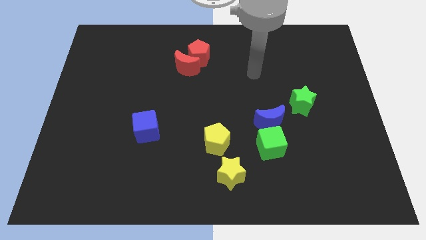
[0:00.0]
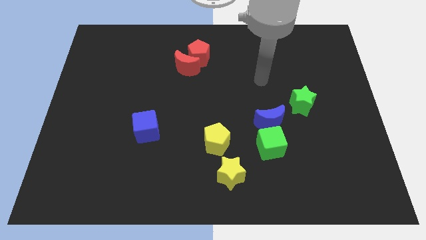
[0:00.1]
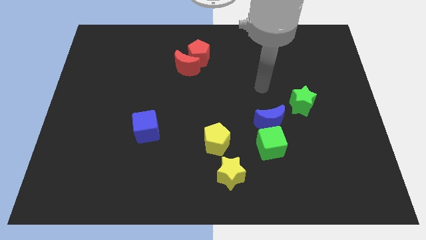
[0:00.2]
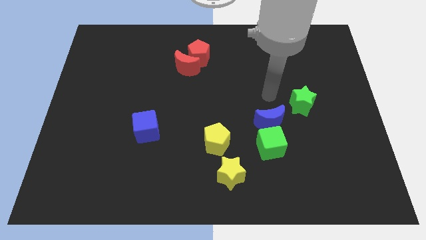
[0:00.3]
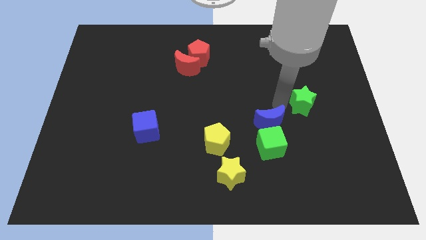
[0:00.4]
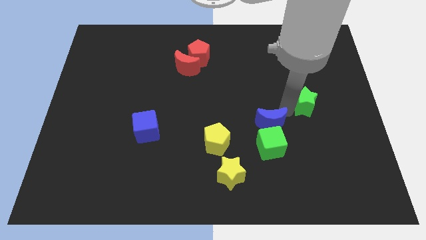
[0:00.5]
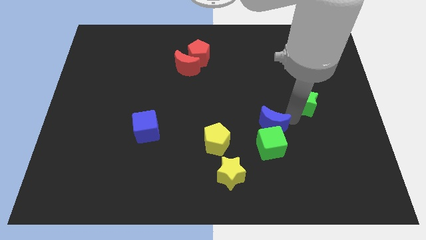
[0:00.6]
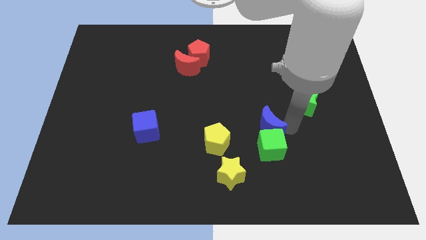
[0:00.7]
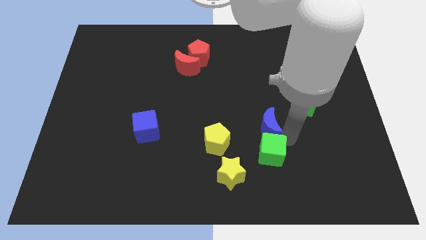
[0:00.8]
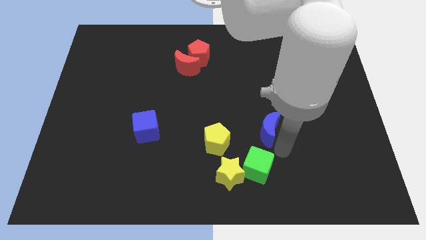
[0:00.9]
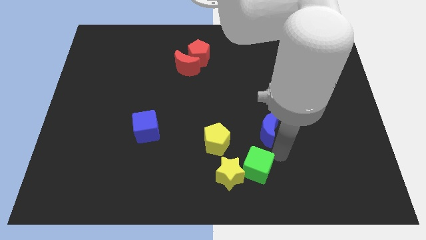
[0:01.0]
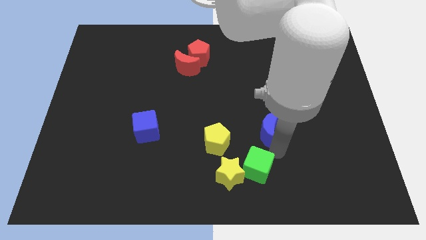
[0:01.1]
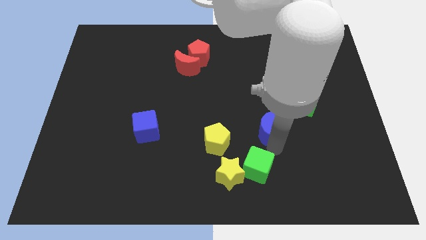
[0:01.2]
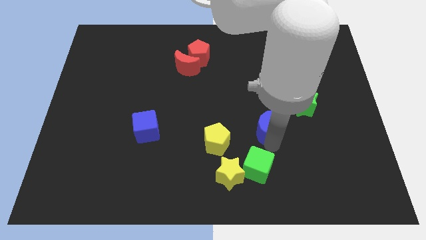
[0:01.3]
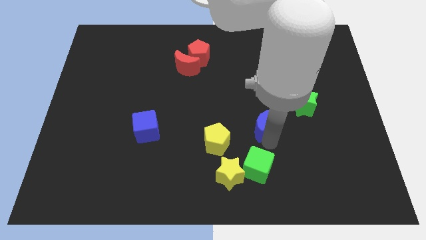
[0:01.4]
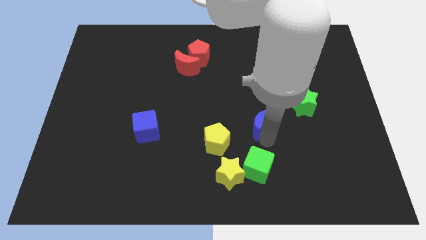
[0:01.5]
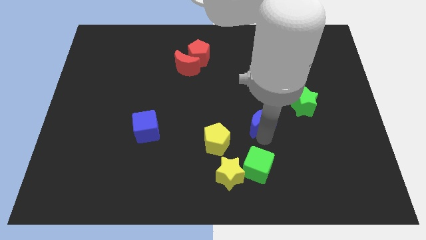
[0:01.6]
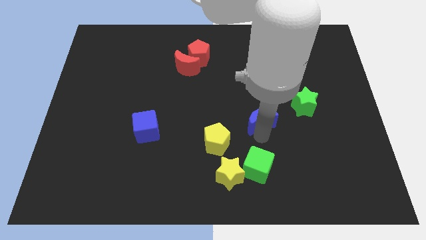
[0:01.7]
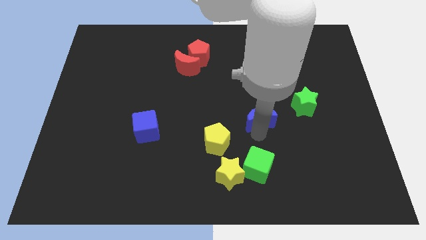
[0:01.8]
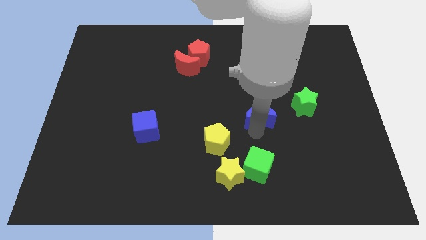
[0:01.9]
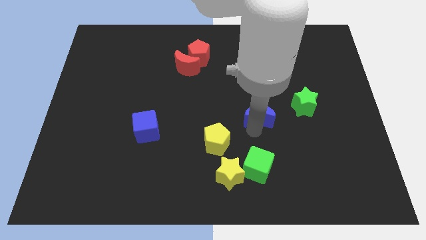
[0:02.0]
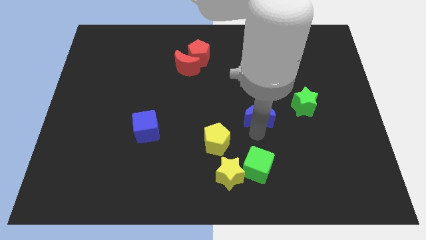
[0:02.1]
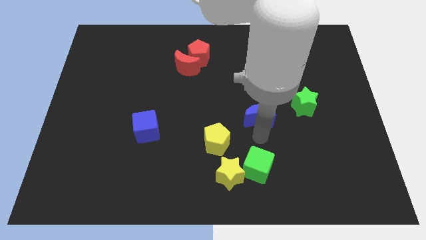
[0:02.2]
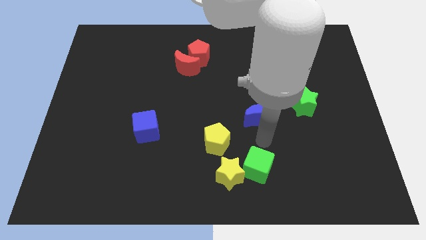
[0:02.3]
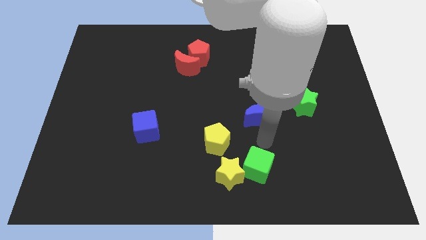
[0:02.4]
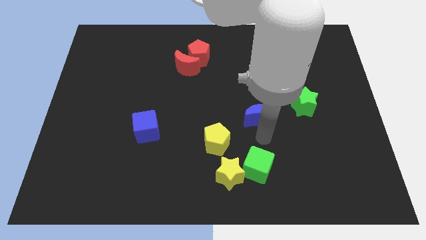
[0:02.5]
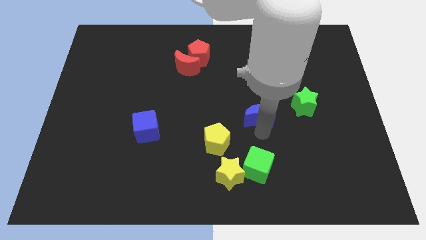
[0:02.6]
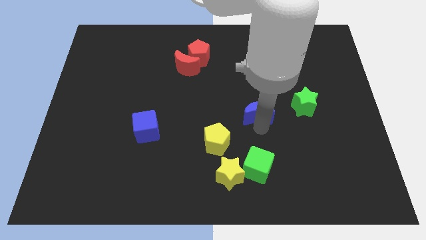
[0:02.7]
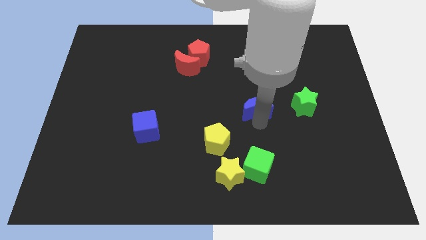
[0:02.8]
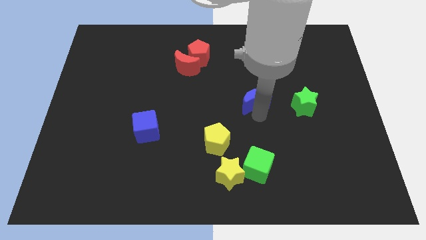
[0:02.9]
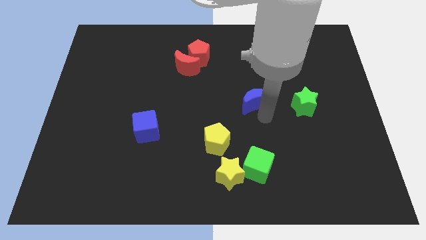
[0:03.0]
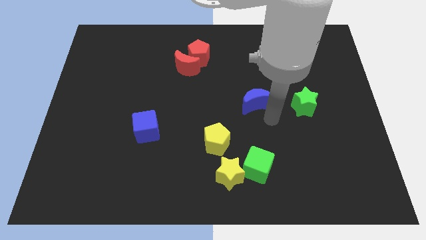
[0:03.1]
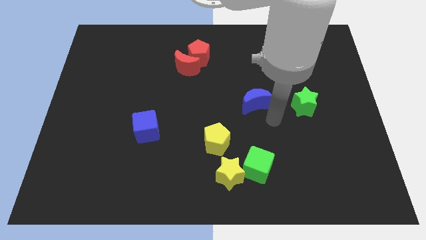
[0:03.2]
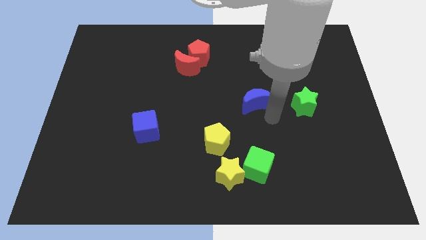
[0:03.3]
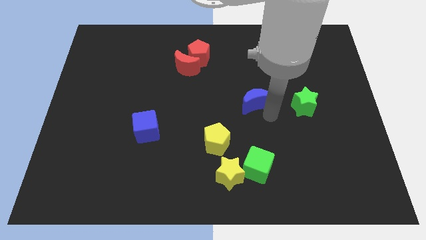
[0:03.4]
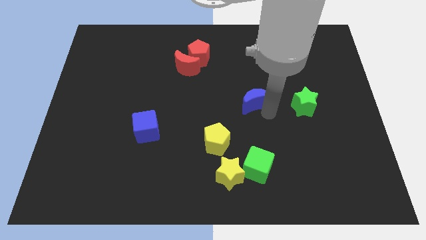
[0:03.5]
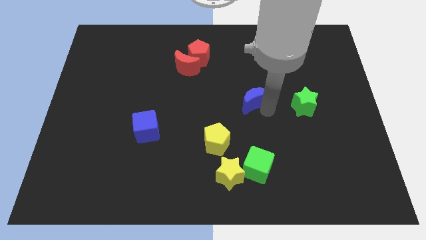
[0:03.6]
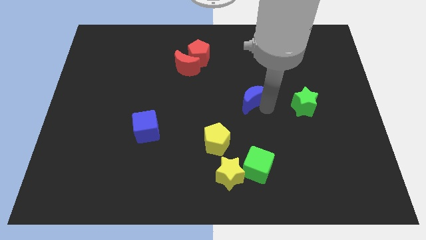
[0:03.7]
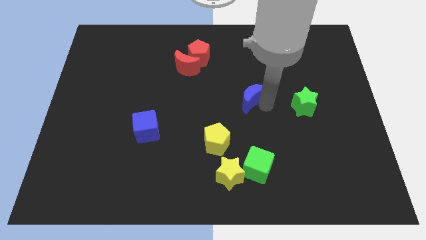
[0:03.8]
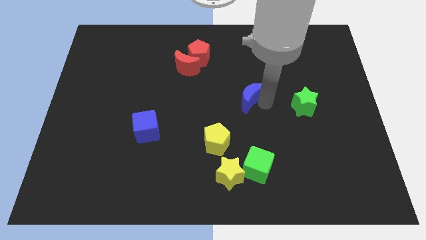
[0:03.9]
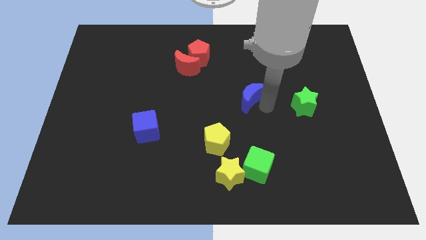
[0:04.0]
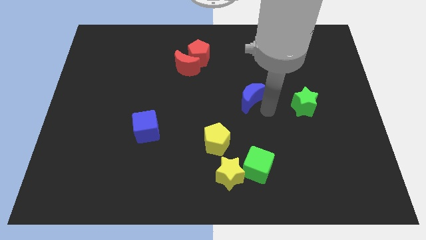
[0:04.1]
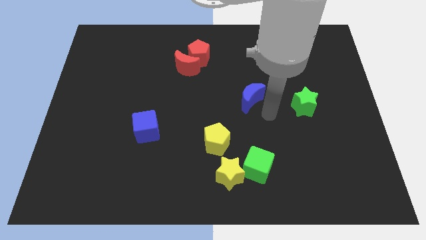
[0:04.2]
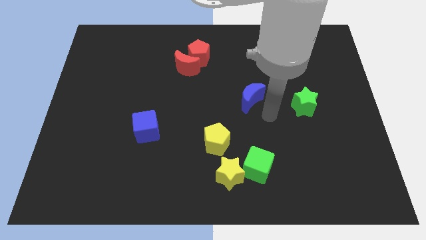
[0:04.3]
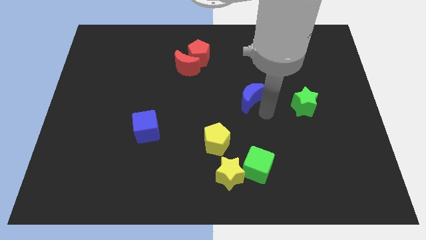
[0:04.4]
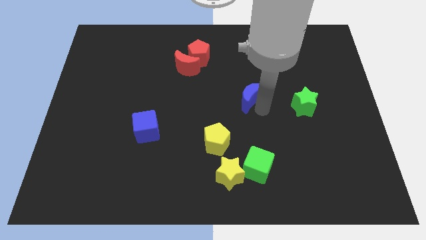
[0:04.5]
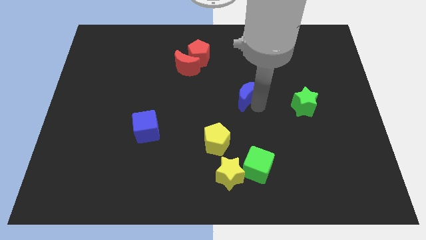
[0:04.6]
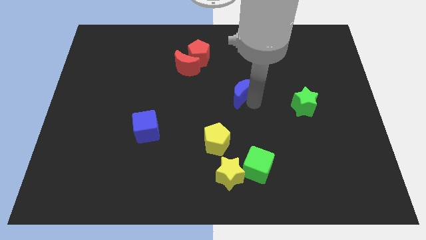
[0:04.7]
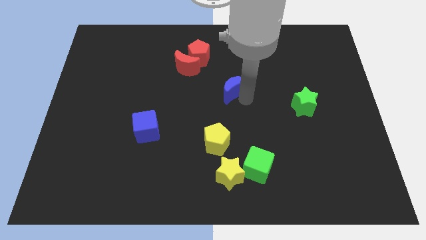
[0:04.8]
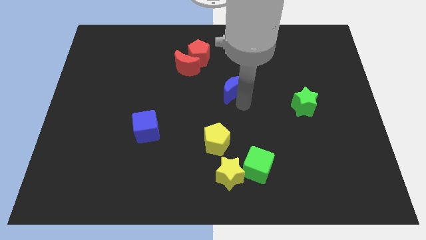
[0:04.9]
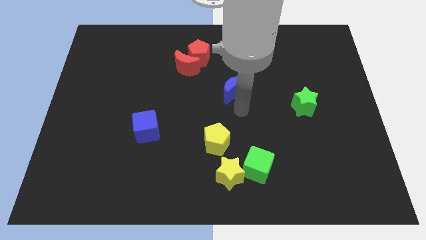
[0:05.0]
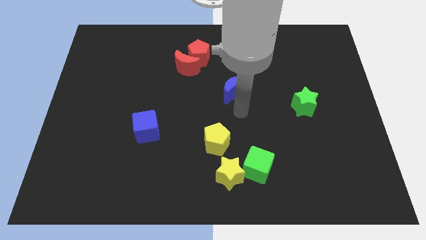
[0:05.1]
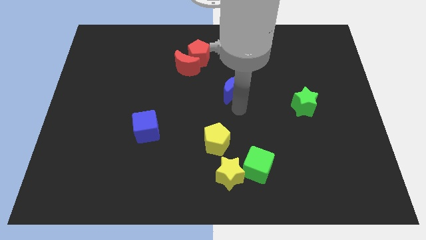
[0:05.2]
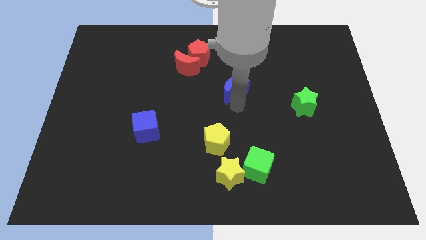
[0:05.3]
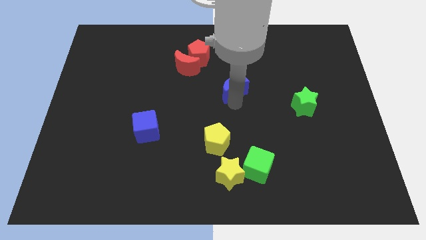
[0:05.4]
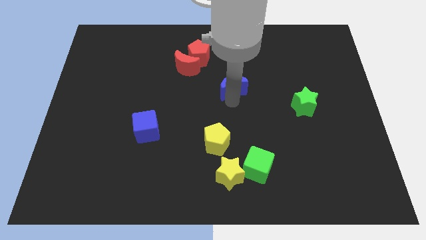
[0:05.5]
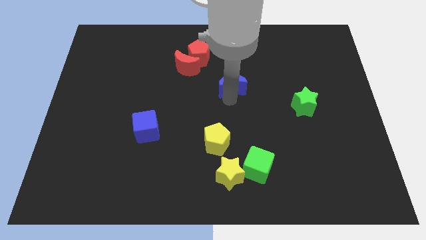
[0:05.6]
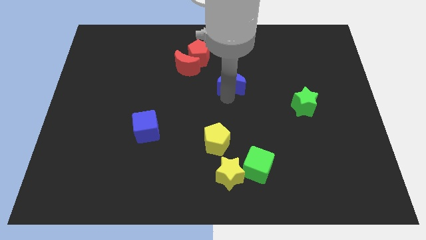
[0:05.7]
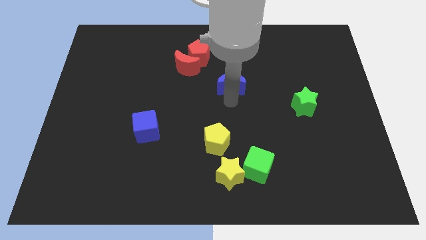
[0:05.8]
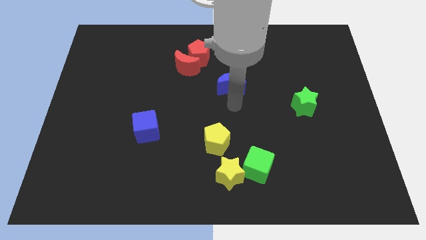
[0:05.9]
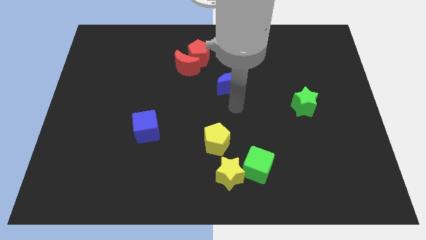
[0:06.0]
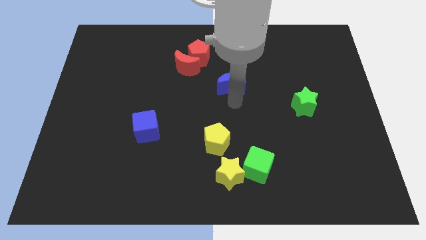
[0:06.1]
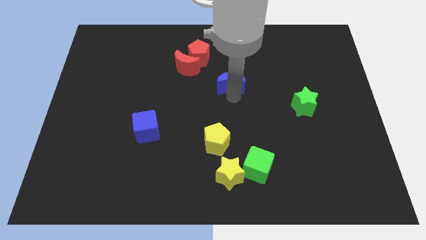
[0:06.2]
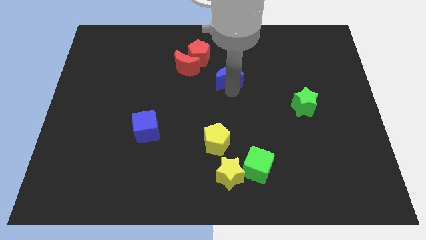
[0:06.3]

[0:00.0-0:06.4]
move the blue moon to the right side of the red moon

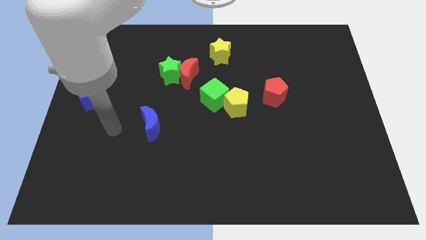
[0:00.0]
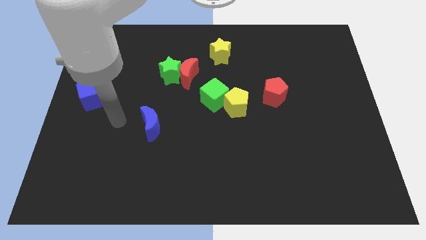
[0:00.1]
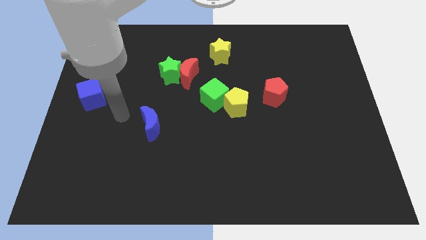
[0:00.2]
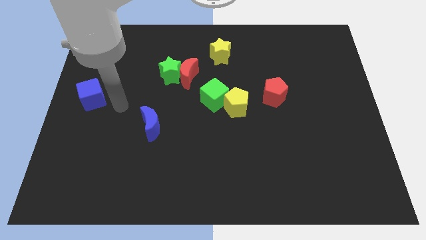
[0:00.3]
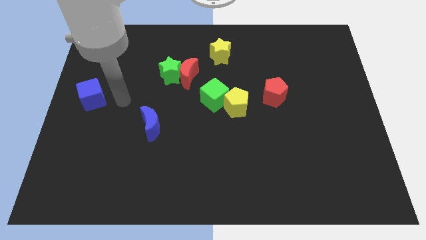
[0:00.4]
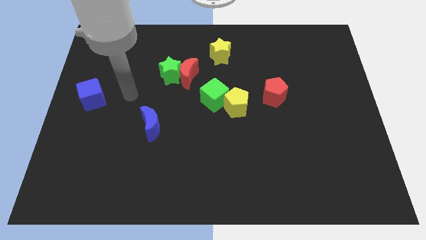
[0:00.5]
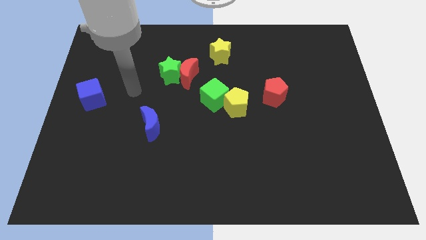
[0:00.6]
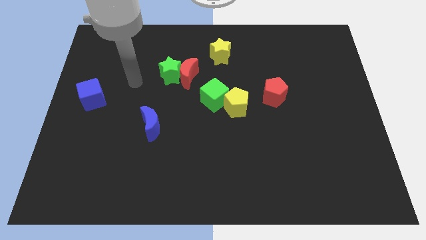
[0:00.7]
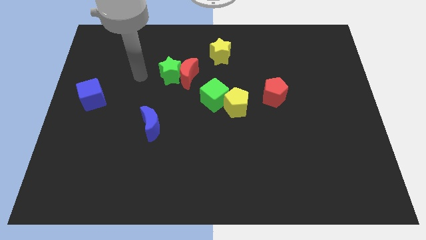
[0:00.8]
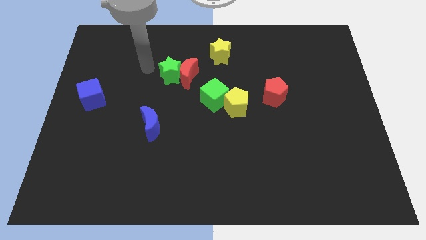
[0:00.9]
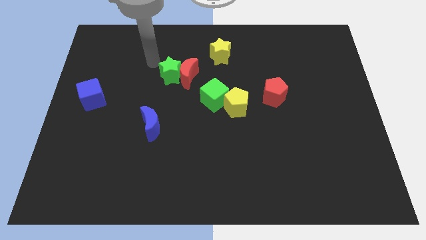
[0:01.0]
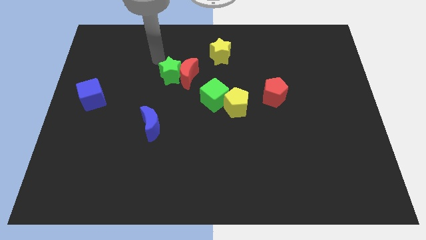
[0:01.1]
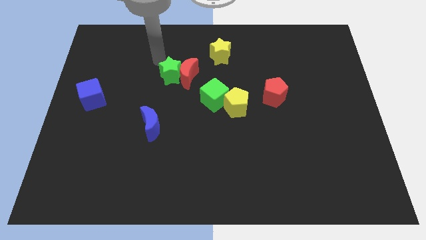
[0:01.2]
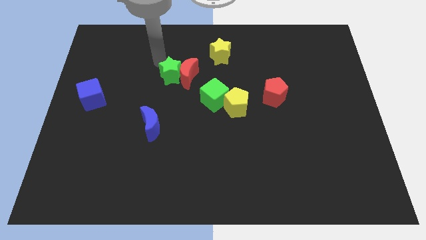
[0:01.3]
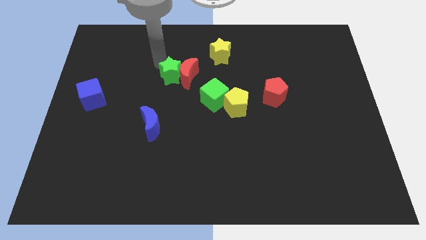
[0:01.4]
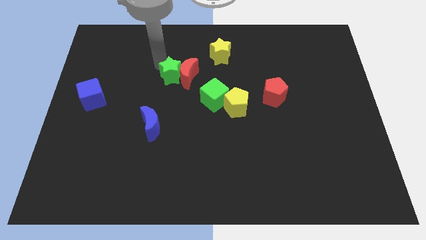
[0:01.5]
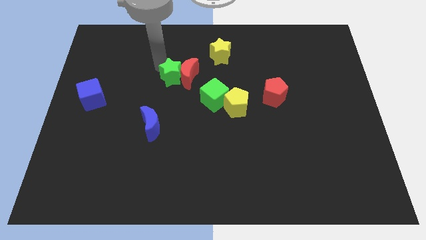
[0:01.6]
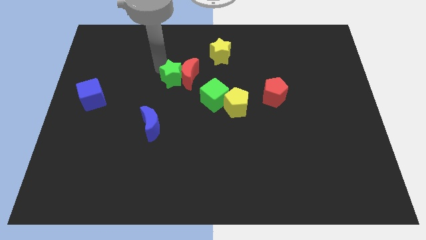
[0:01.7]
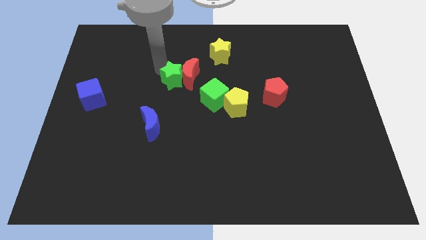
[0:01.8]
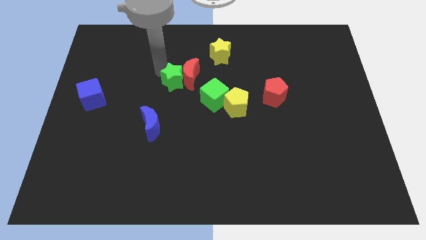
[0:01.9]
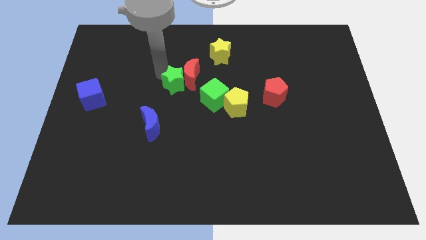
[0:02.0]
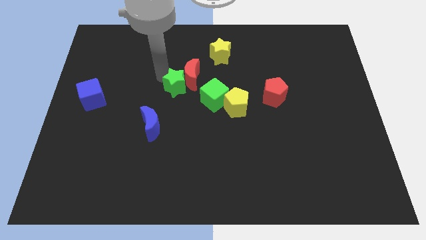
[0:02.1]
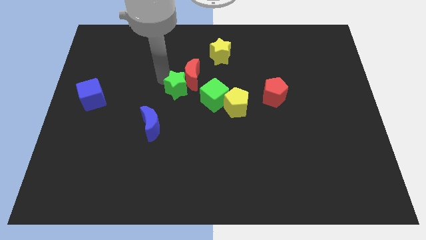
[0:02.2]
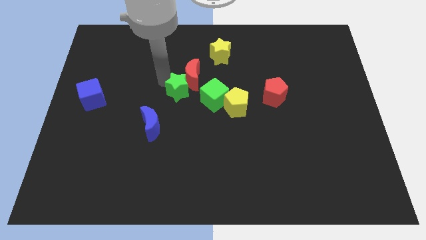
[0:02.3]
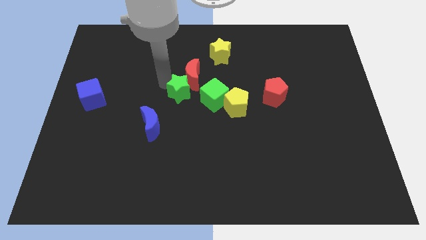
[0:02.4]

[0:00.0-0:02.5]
slide the green star to the left of the yellow pentagon
